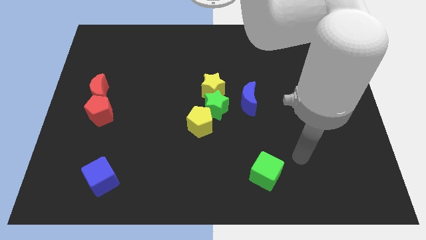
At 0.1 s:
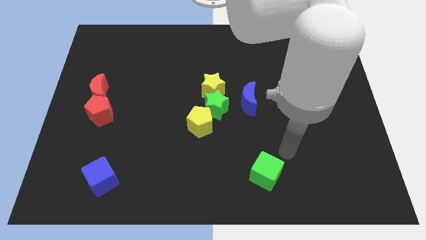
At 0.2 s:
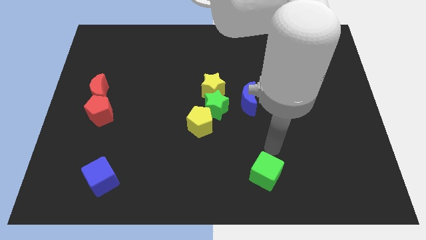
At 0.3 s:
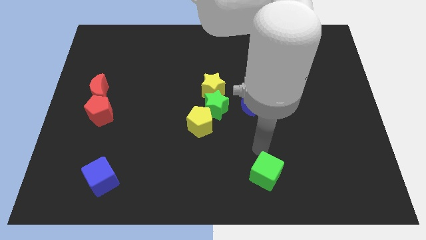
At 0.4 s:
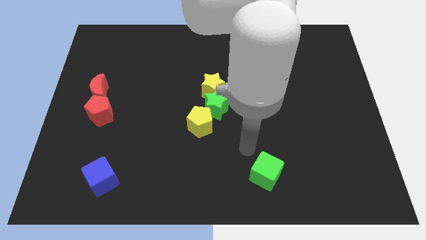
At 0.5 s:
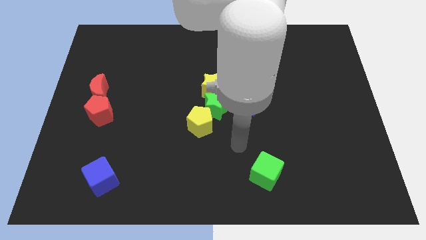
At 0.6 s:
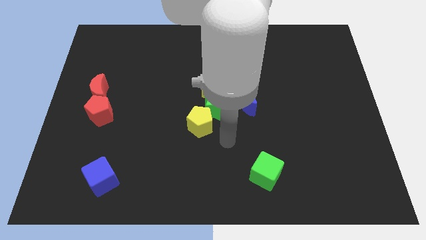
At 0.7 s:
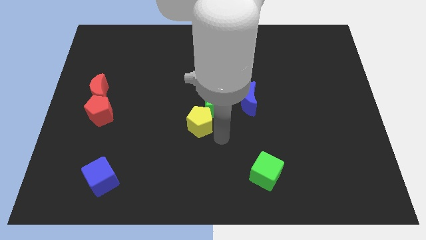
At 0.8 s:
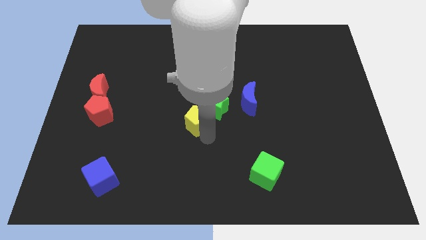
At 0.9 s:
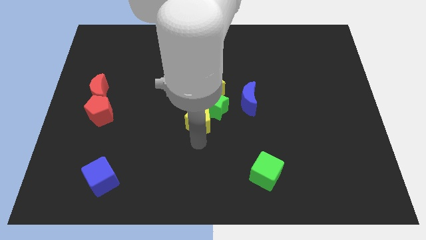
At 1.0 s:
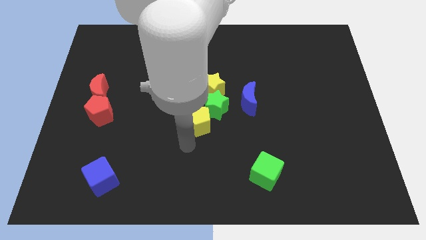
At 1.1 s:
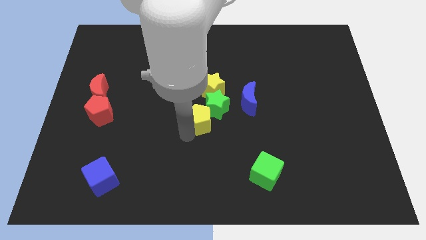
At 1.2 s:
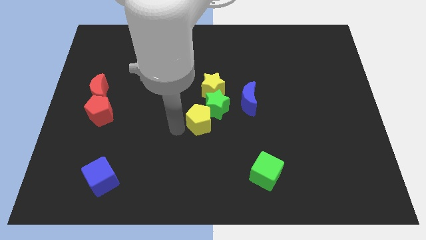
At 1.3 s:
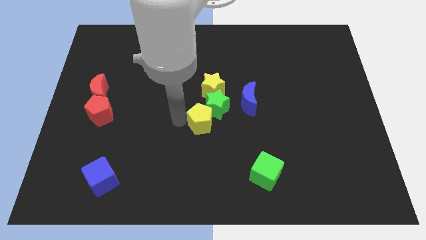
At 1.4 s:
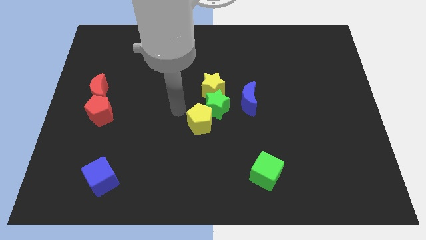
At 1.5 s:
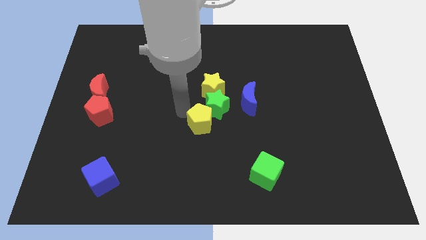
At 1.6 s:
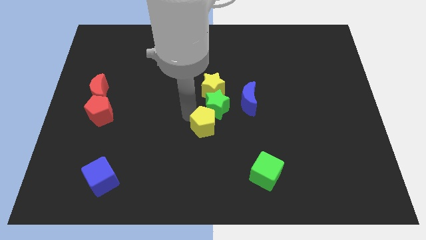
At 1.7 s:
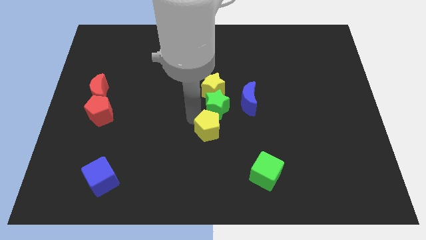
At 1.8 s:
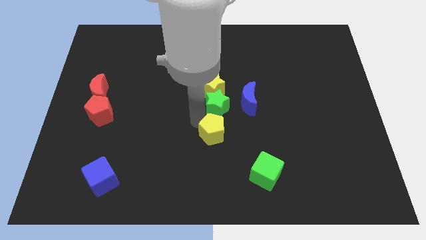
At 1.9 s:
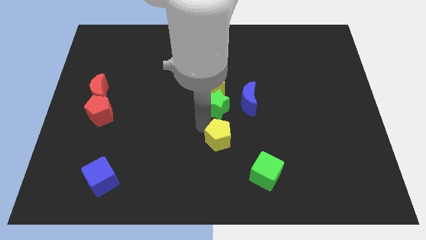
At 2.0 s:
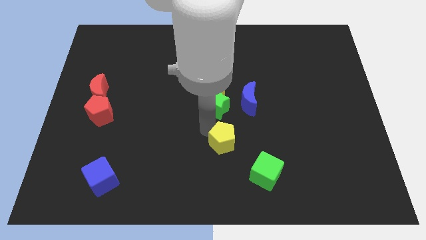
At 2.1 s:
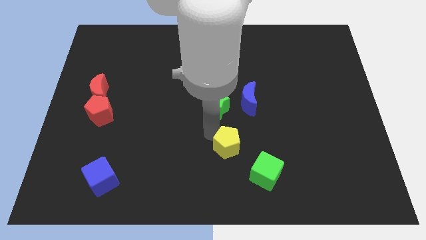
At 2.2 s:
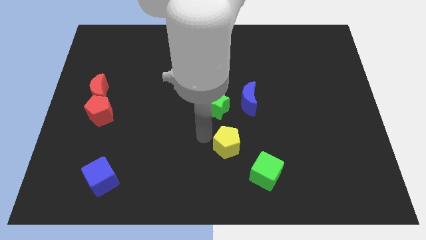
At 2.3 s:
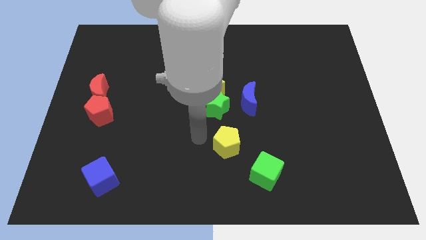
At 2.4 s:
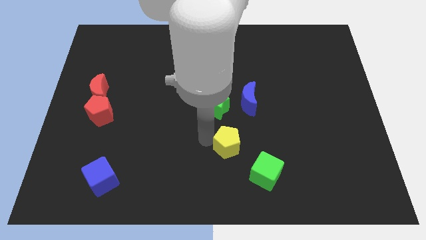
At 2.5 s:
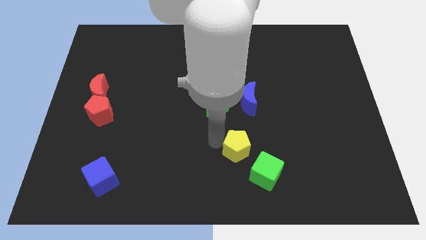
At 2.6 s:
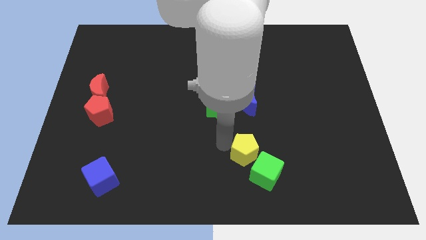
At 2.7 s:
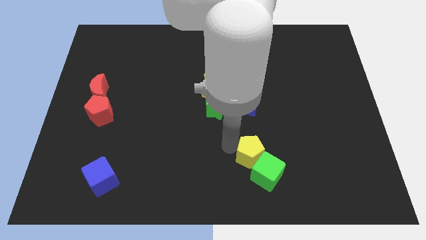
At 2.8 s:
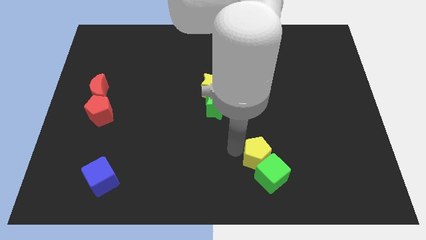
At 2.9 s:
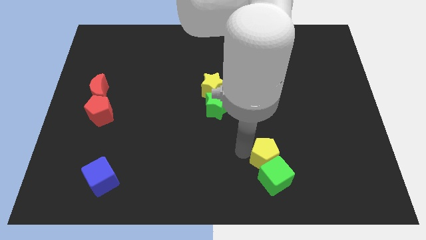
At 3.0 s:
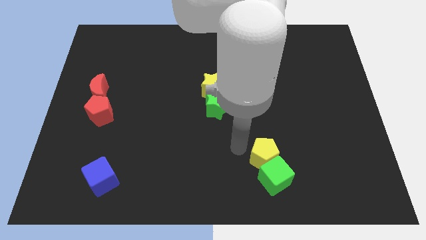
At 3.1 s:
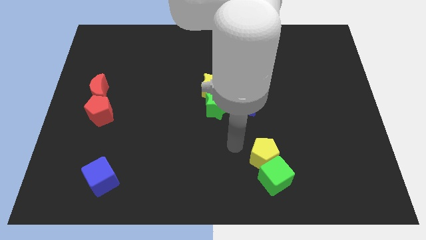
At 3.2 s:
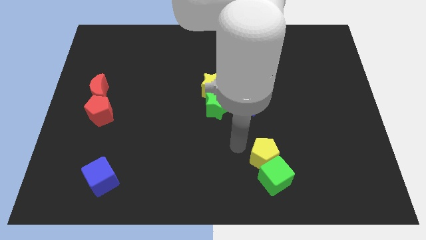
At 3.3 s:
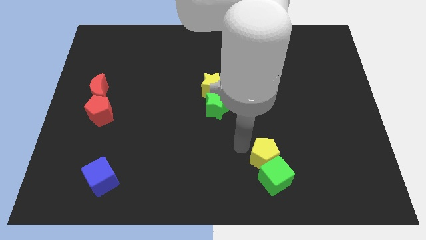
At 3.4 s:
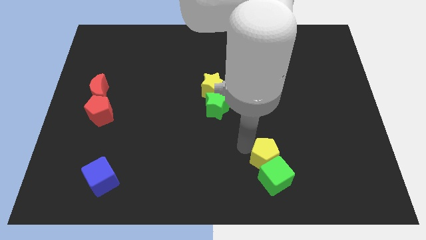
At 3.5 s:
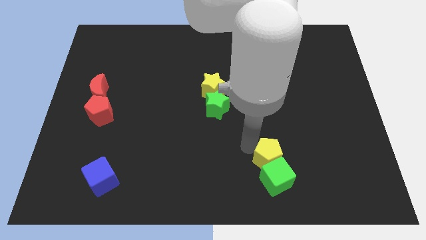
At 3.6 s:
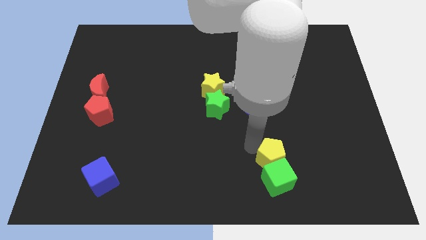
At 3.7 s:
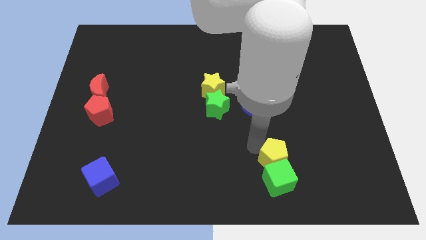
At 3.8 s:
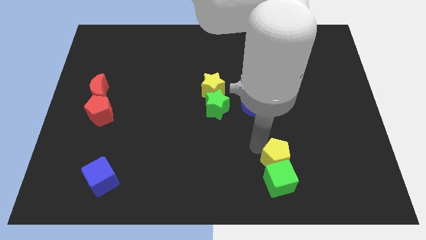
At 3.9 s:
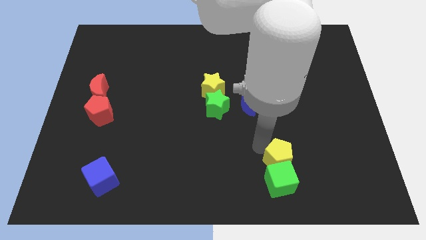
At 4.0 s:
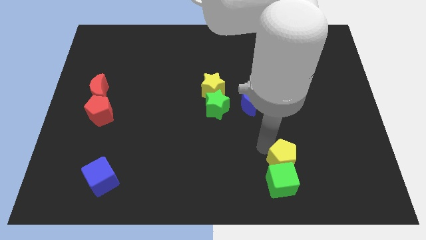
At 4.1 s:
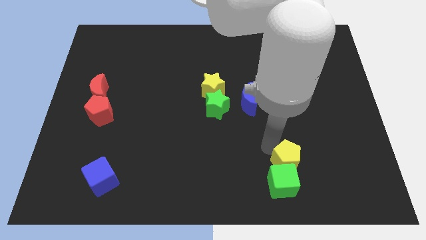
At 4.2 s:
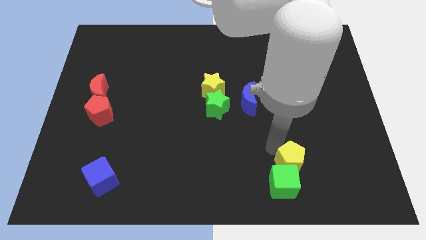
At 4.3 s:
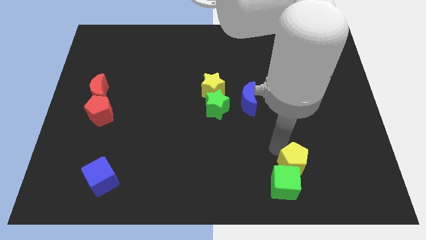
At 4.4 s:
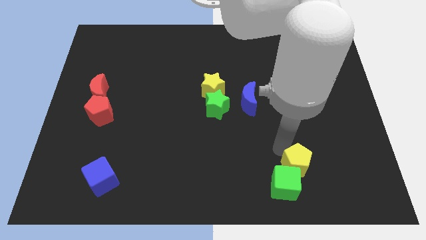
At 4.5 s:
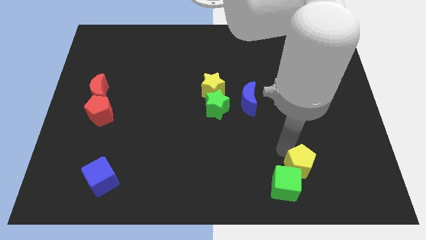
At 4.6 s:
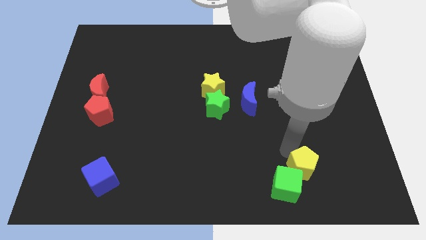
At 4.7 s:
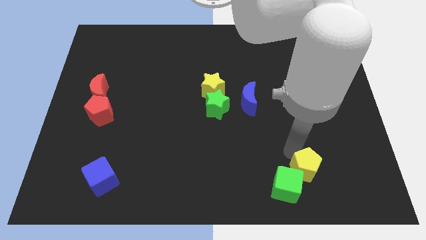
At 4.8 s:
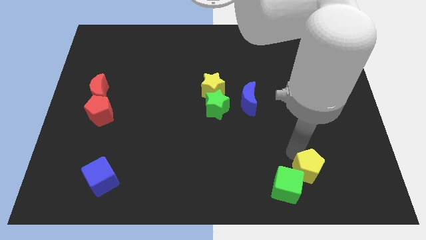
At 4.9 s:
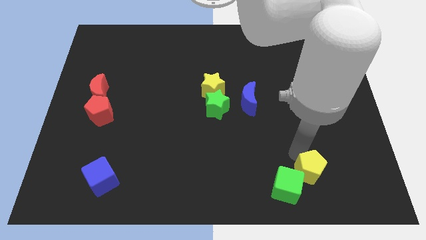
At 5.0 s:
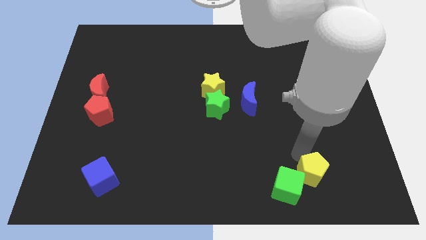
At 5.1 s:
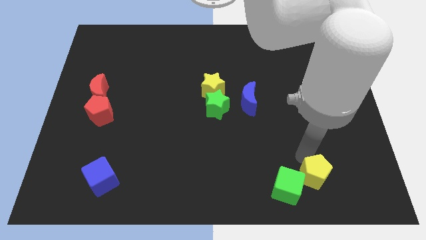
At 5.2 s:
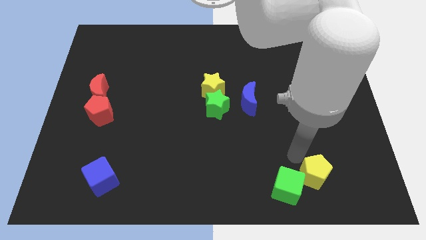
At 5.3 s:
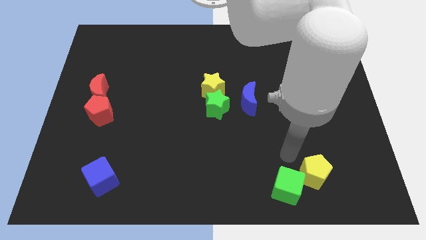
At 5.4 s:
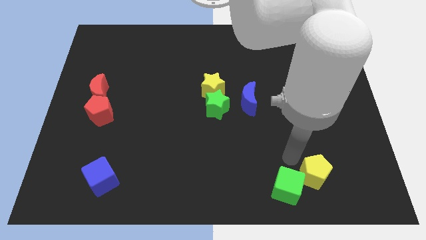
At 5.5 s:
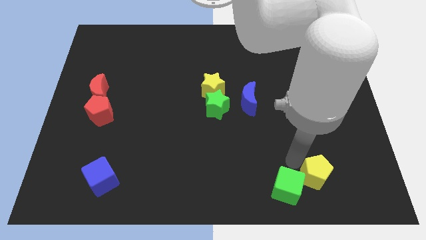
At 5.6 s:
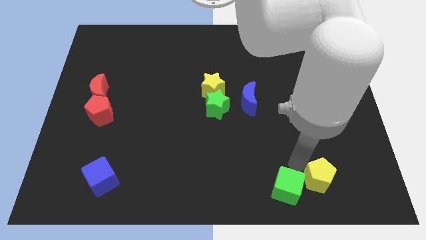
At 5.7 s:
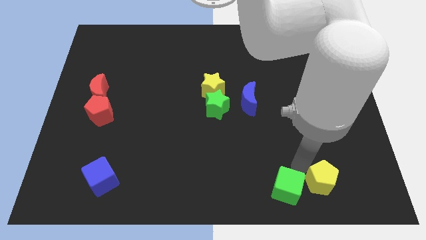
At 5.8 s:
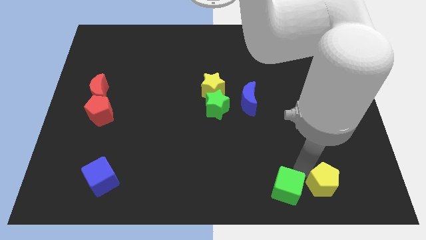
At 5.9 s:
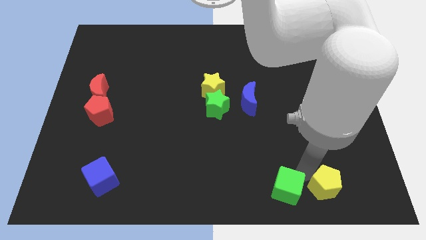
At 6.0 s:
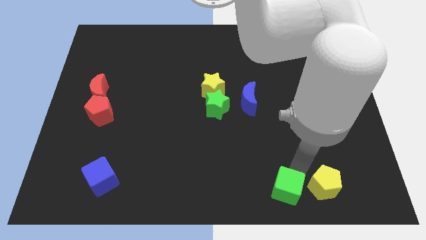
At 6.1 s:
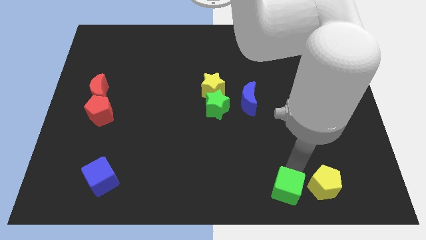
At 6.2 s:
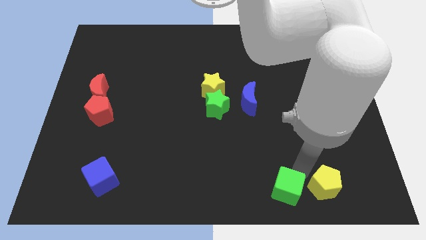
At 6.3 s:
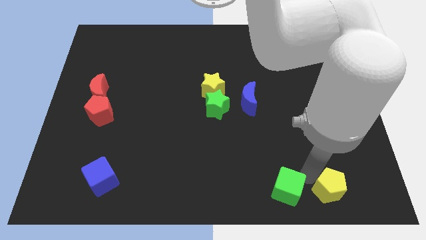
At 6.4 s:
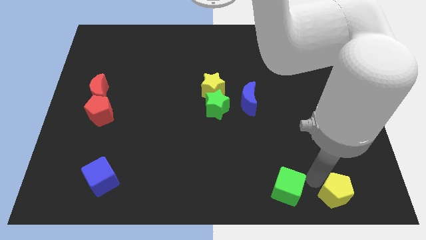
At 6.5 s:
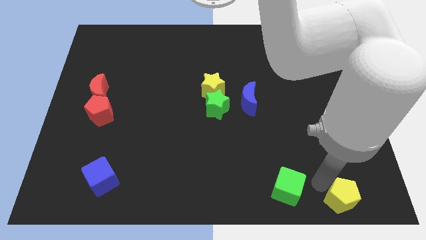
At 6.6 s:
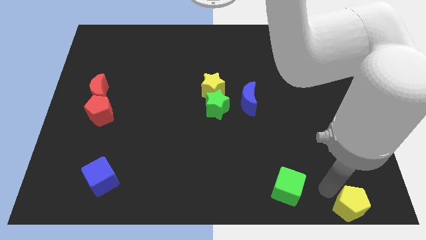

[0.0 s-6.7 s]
put the yellow pentagon to the bottom right
